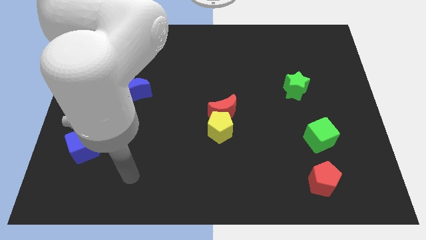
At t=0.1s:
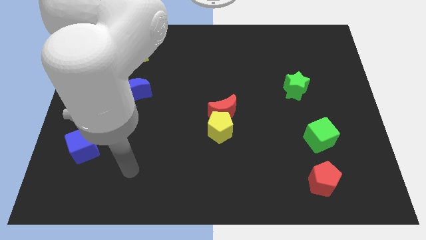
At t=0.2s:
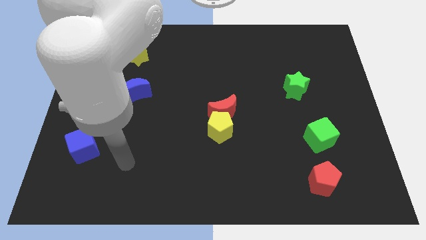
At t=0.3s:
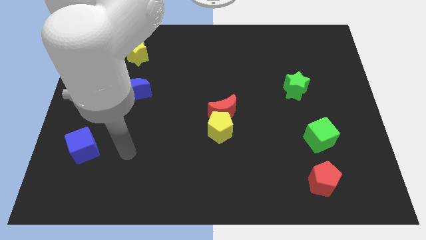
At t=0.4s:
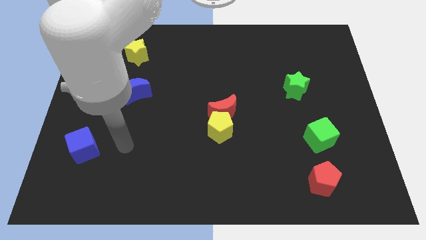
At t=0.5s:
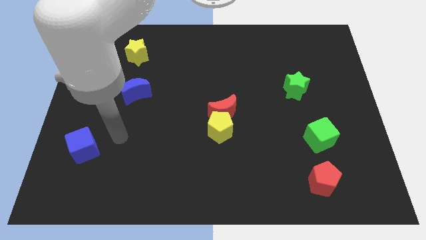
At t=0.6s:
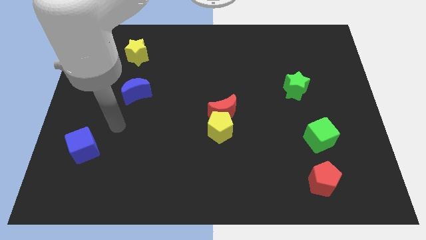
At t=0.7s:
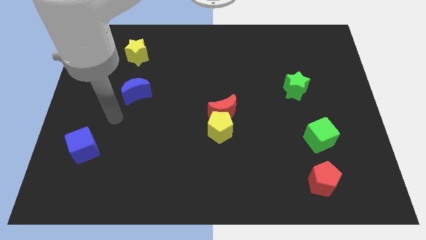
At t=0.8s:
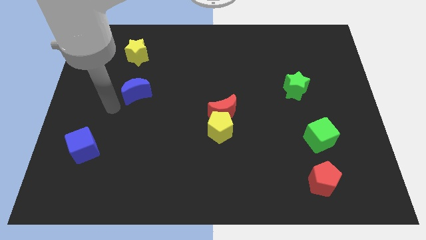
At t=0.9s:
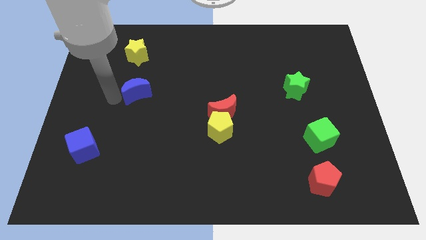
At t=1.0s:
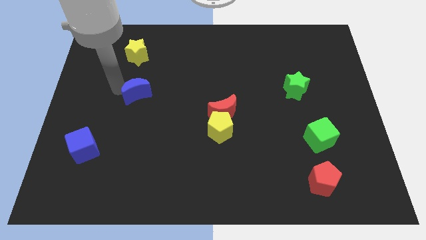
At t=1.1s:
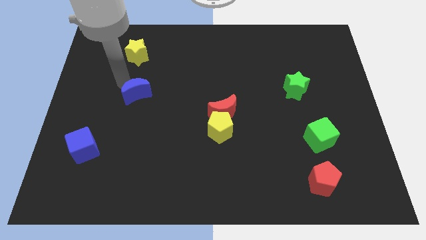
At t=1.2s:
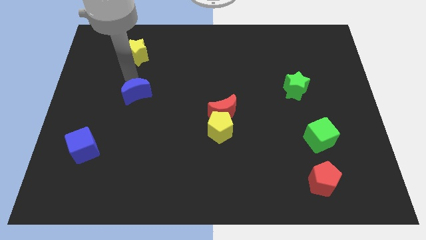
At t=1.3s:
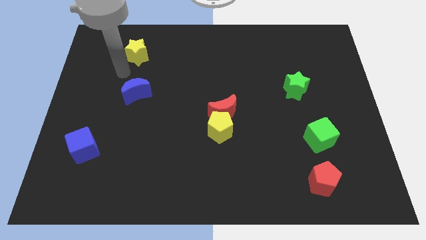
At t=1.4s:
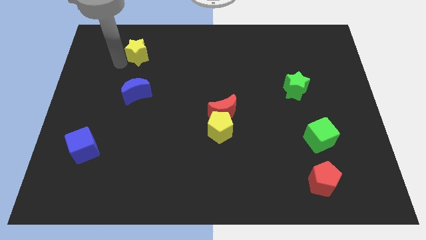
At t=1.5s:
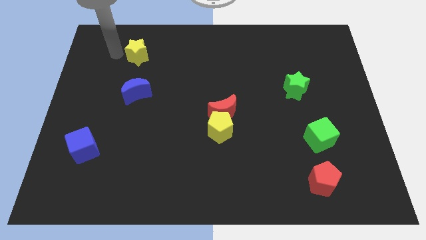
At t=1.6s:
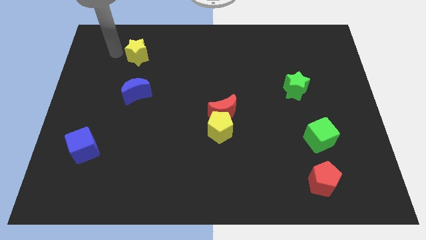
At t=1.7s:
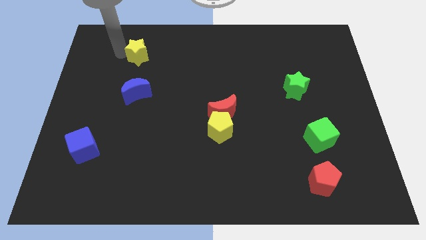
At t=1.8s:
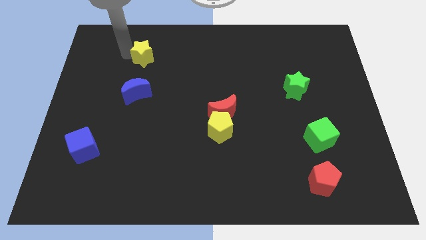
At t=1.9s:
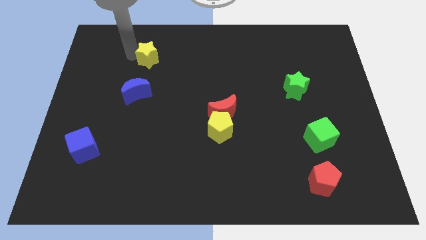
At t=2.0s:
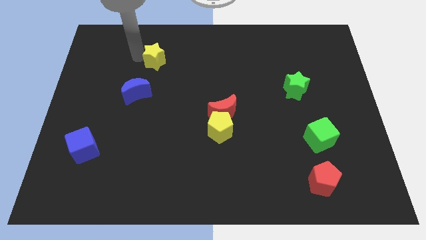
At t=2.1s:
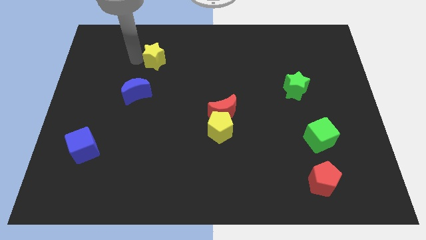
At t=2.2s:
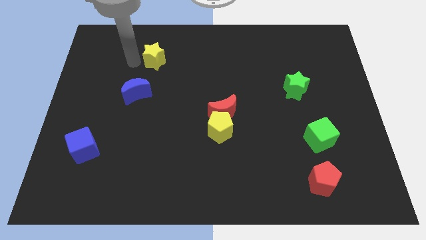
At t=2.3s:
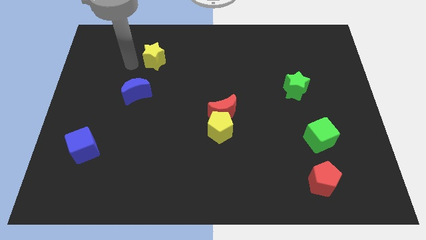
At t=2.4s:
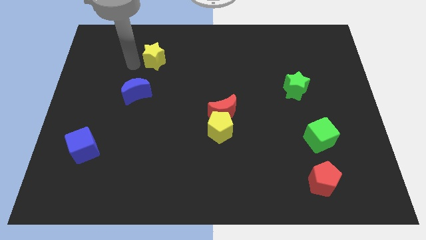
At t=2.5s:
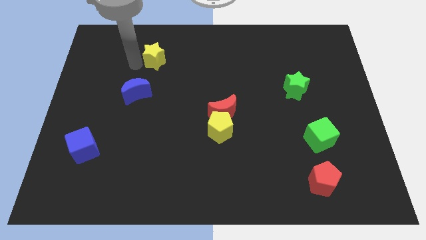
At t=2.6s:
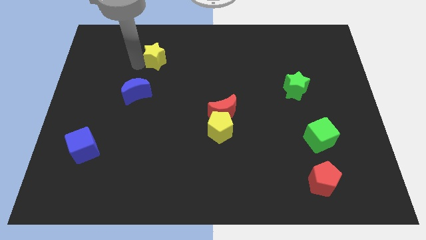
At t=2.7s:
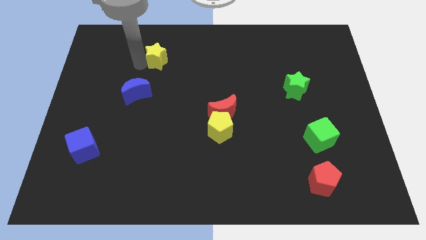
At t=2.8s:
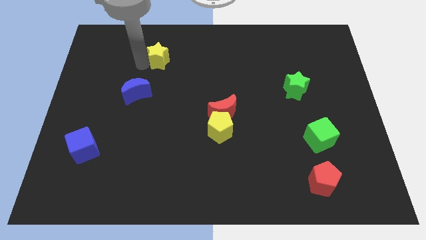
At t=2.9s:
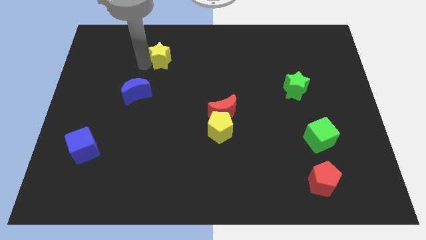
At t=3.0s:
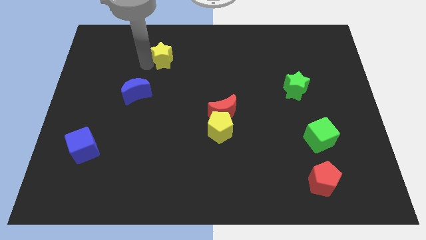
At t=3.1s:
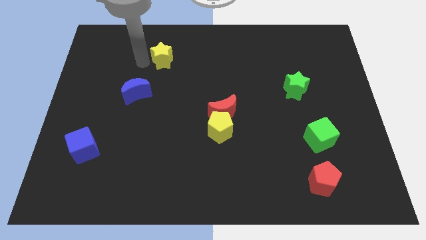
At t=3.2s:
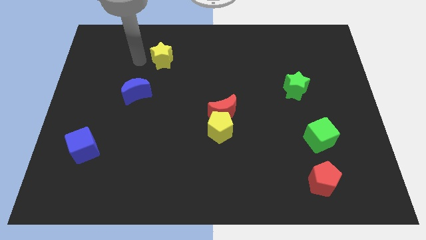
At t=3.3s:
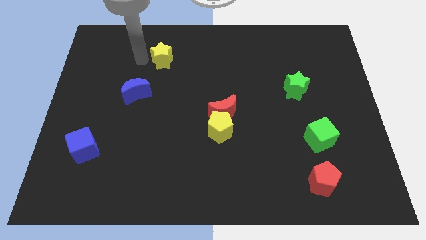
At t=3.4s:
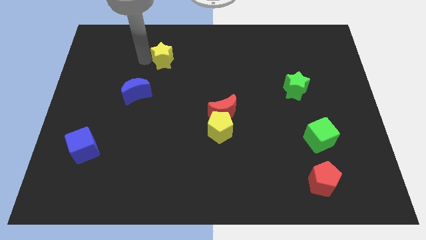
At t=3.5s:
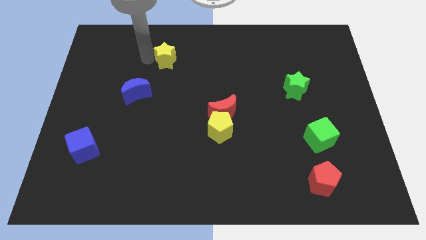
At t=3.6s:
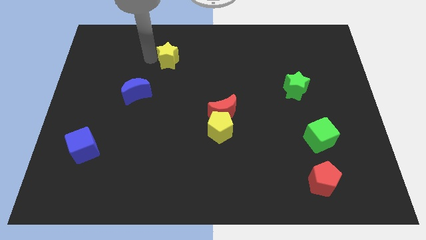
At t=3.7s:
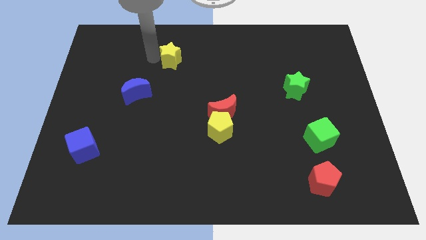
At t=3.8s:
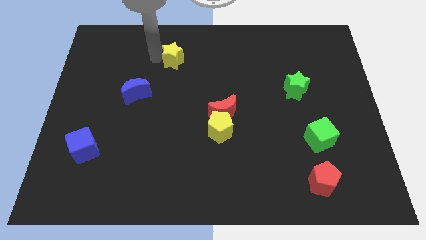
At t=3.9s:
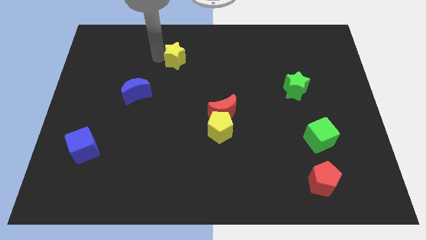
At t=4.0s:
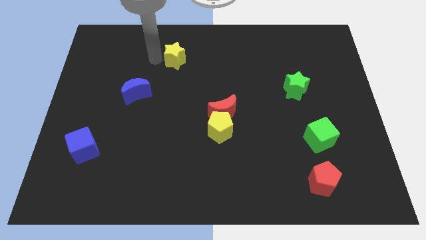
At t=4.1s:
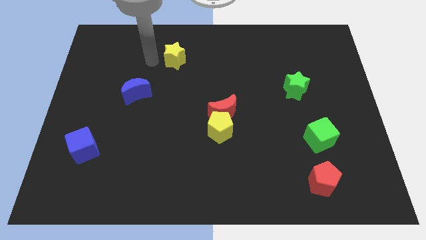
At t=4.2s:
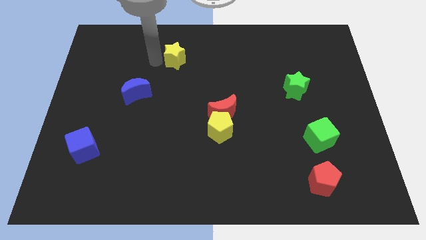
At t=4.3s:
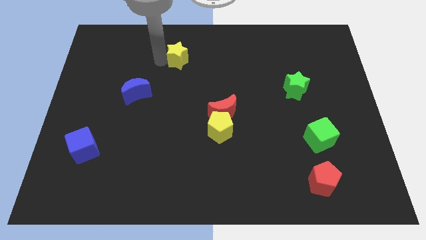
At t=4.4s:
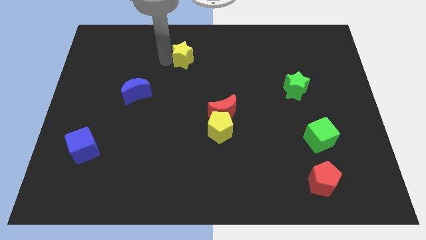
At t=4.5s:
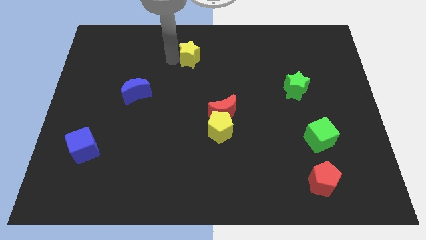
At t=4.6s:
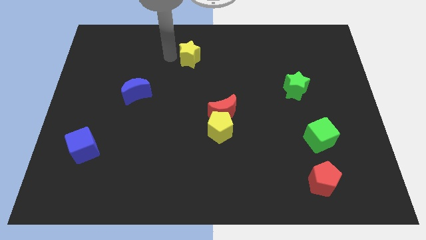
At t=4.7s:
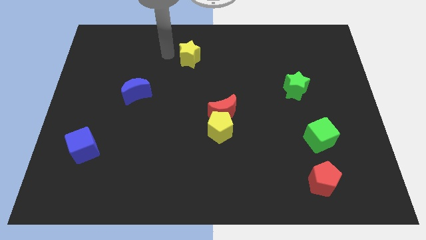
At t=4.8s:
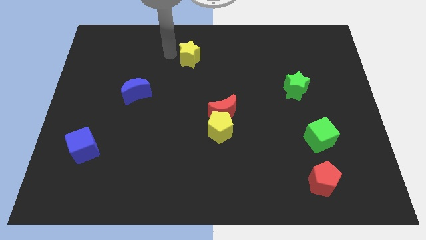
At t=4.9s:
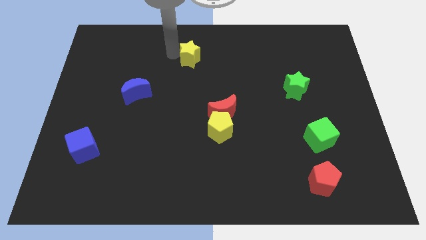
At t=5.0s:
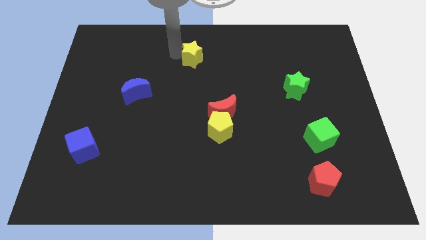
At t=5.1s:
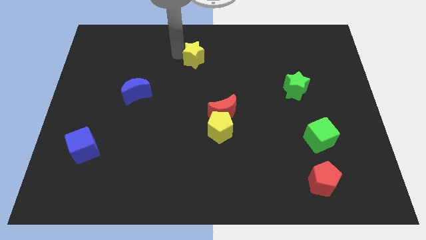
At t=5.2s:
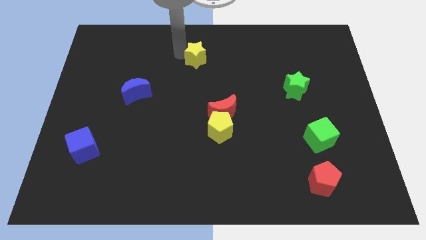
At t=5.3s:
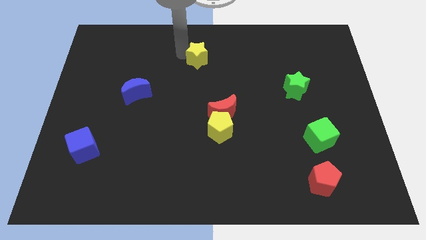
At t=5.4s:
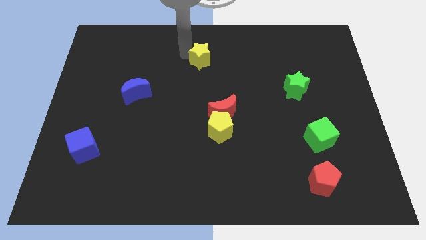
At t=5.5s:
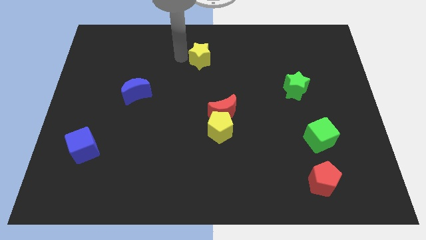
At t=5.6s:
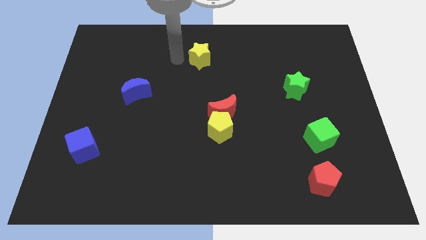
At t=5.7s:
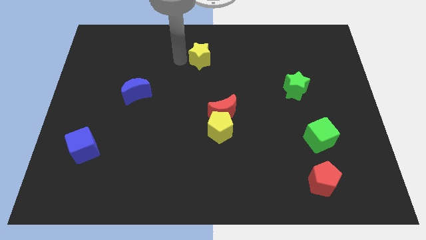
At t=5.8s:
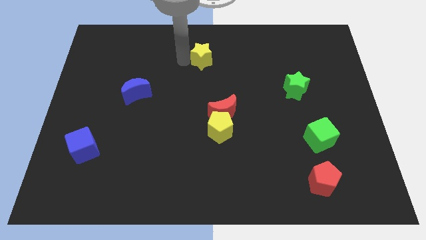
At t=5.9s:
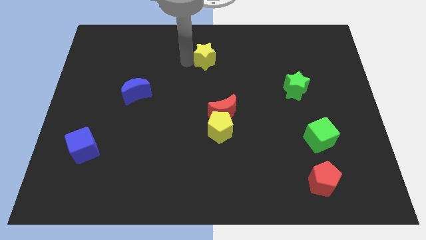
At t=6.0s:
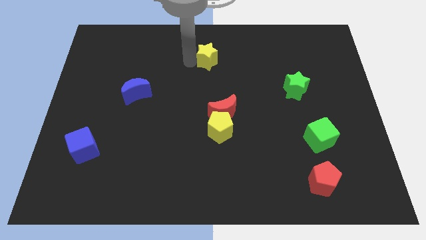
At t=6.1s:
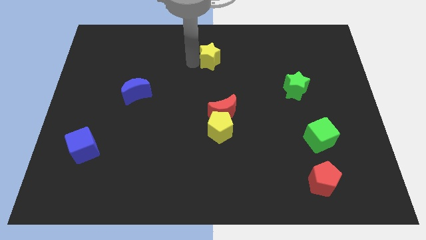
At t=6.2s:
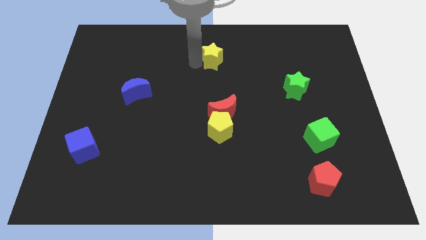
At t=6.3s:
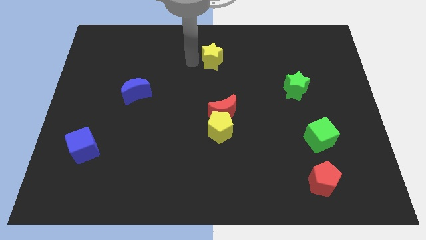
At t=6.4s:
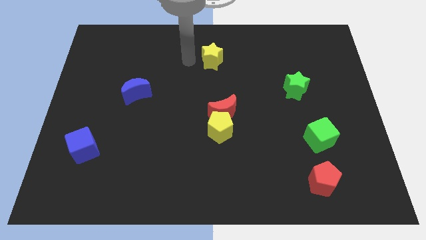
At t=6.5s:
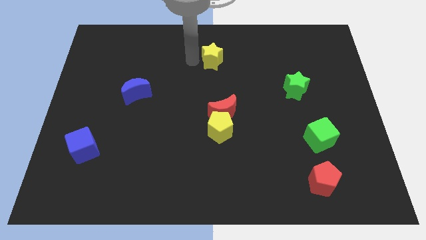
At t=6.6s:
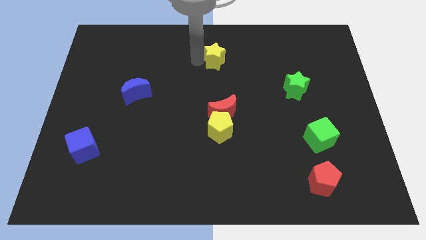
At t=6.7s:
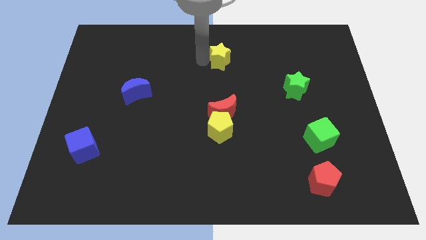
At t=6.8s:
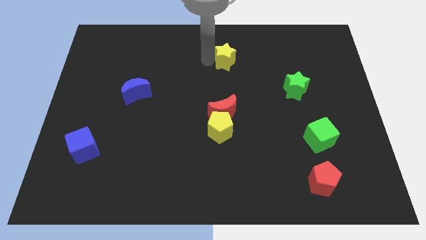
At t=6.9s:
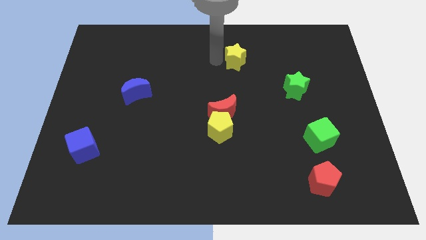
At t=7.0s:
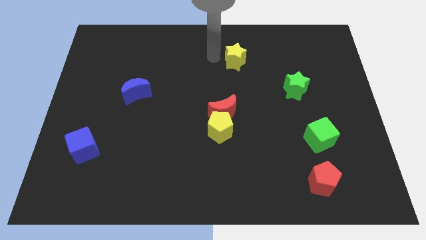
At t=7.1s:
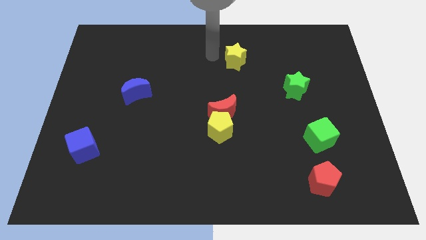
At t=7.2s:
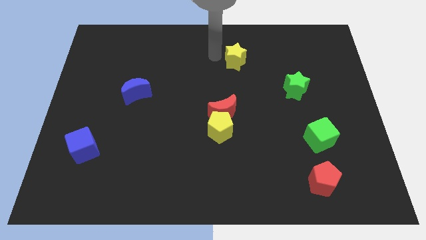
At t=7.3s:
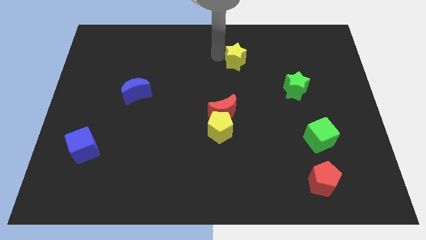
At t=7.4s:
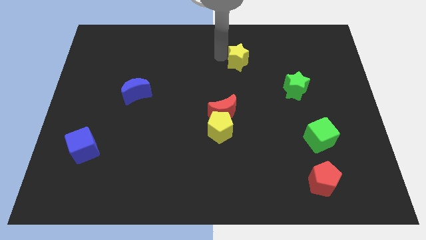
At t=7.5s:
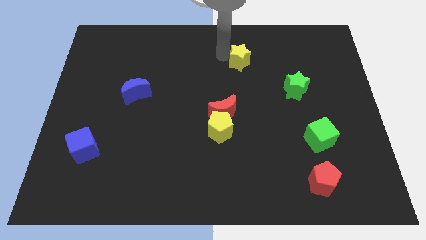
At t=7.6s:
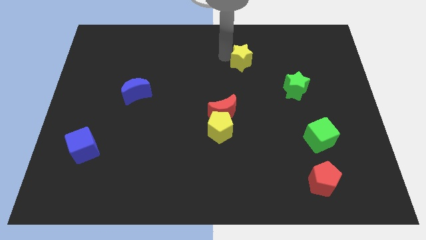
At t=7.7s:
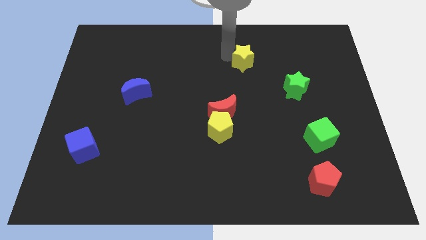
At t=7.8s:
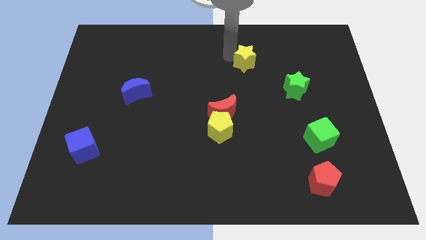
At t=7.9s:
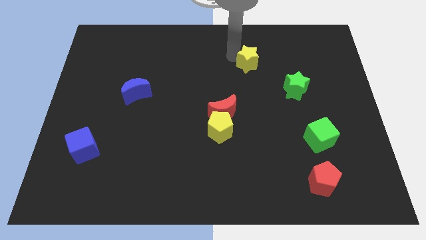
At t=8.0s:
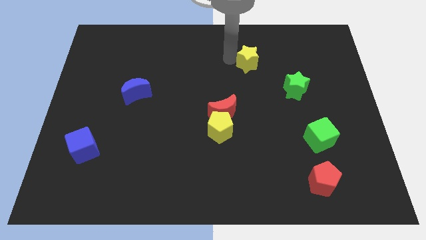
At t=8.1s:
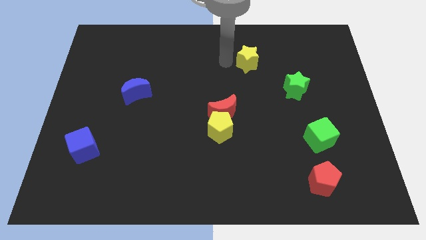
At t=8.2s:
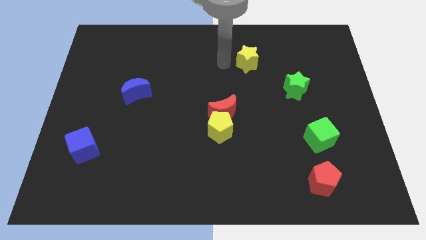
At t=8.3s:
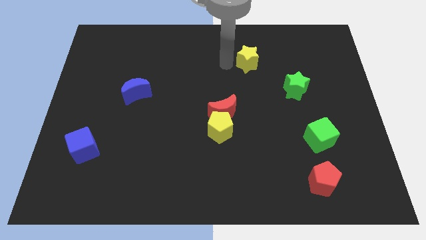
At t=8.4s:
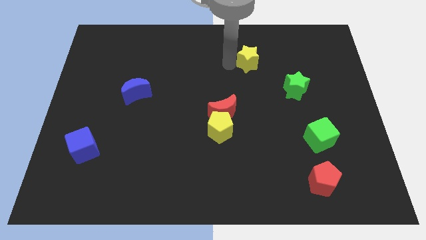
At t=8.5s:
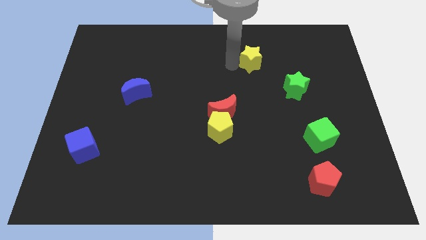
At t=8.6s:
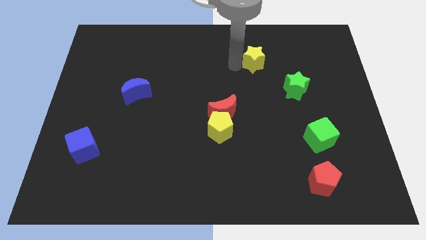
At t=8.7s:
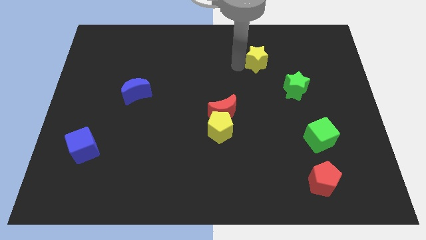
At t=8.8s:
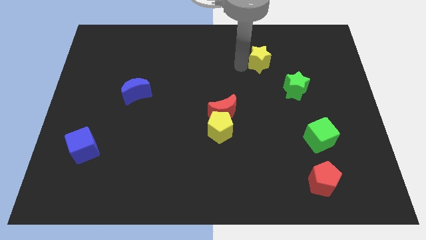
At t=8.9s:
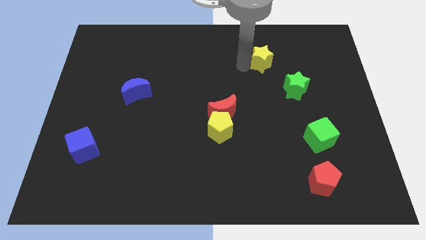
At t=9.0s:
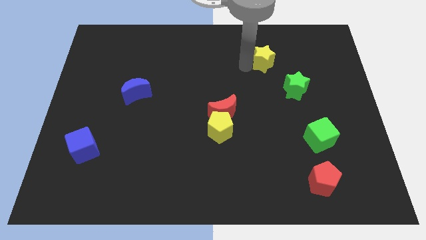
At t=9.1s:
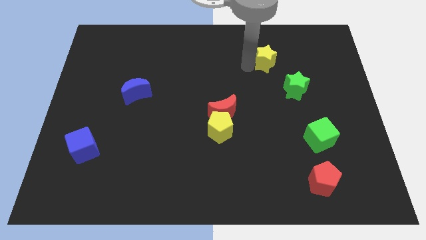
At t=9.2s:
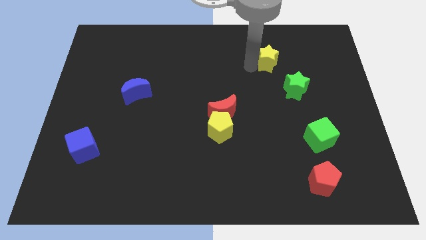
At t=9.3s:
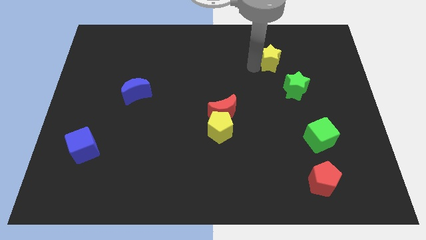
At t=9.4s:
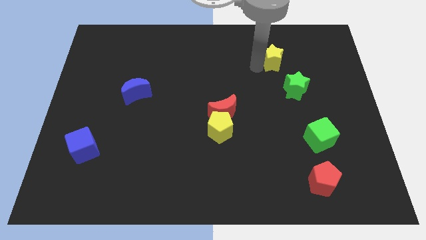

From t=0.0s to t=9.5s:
move the yellow star above the green star
